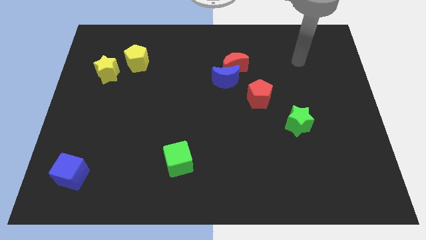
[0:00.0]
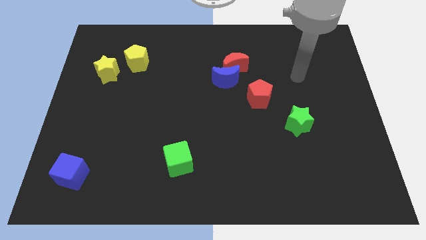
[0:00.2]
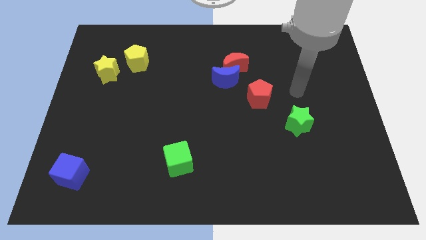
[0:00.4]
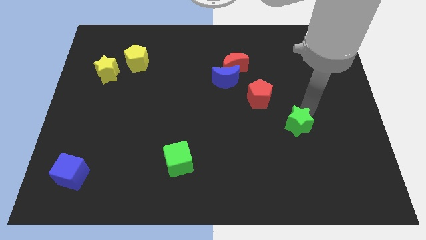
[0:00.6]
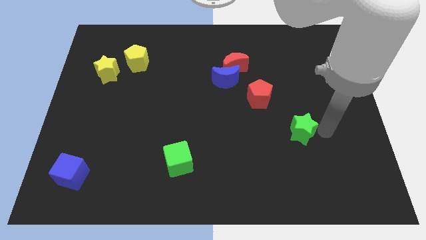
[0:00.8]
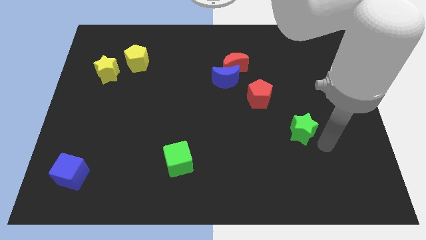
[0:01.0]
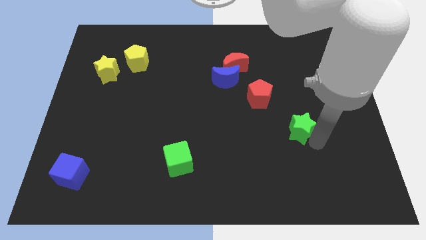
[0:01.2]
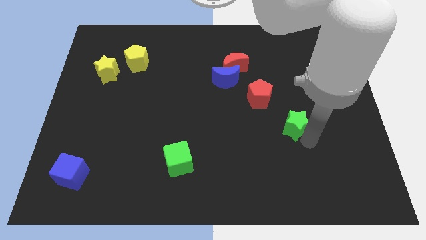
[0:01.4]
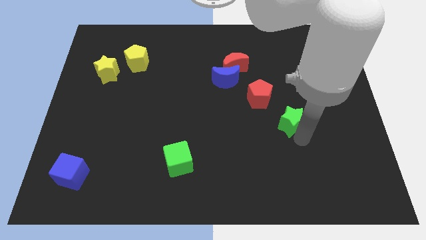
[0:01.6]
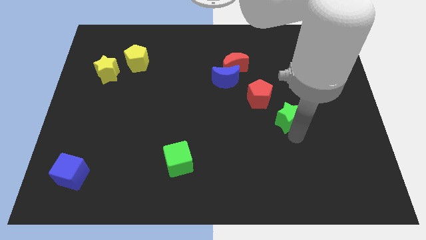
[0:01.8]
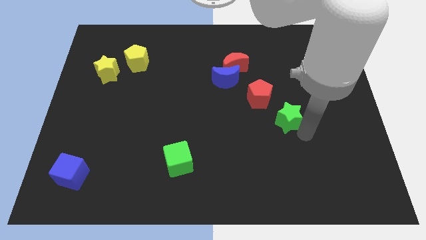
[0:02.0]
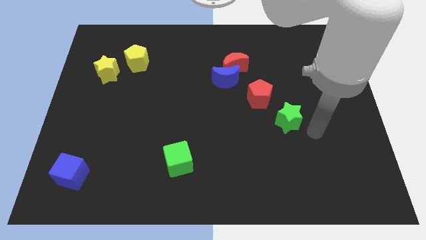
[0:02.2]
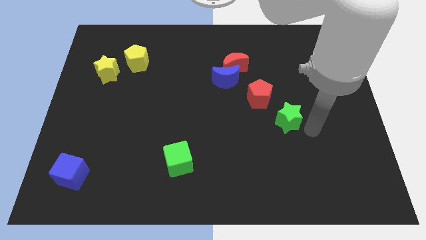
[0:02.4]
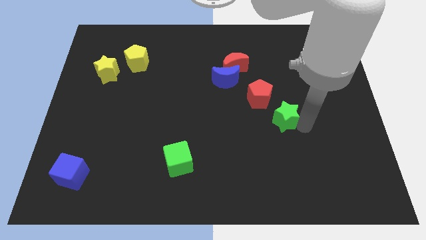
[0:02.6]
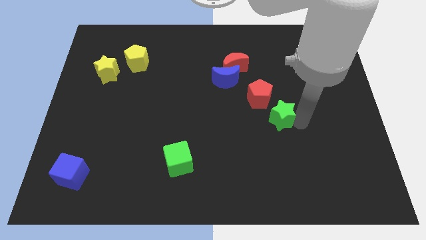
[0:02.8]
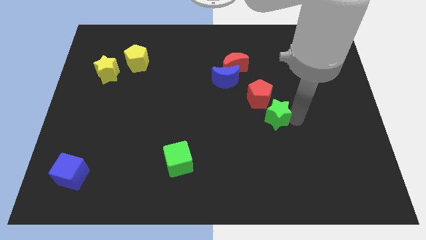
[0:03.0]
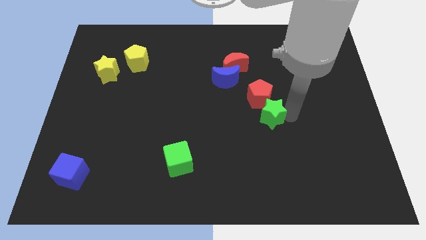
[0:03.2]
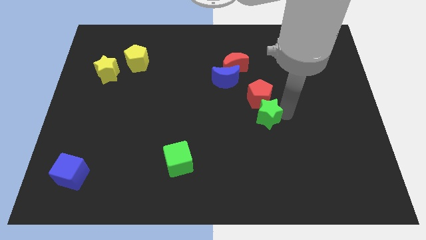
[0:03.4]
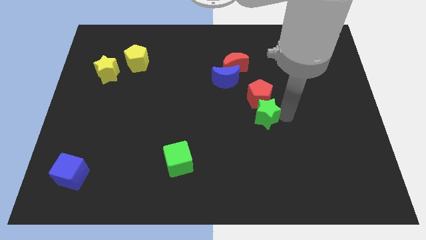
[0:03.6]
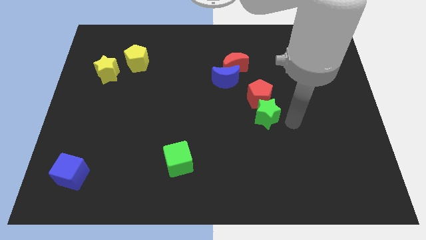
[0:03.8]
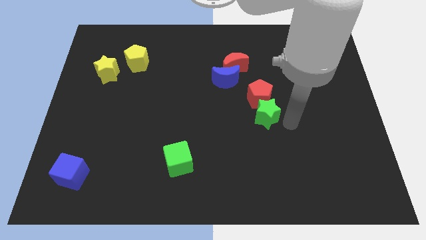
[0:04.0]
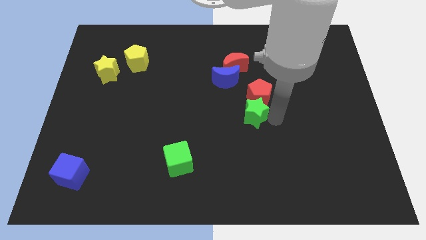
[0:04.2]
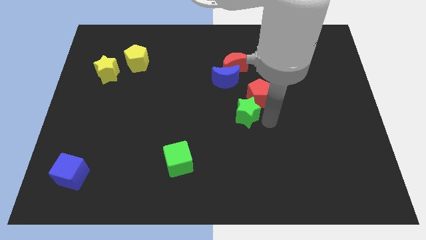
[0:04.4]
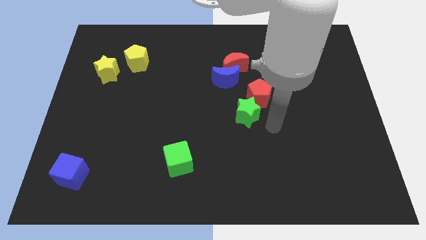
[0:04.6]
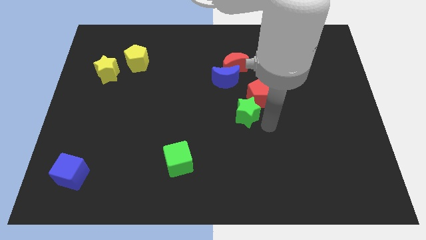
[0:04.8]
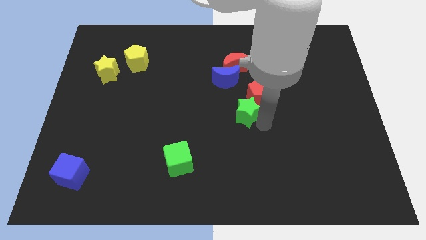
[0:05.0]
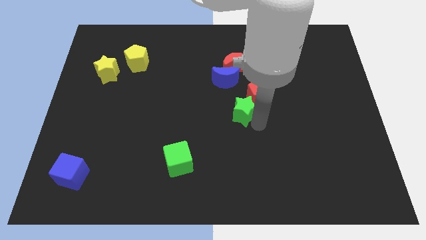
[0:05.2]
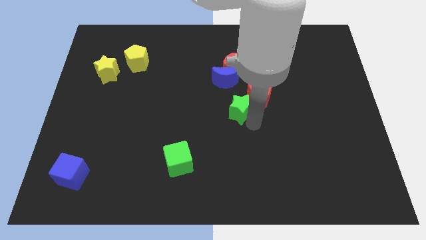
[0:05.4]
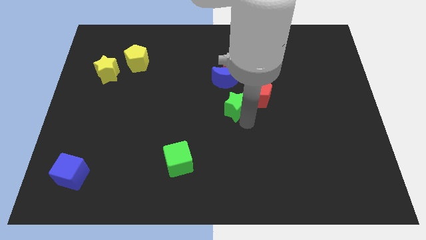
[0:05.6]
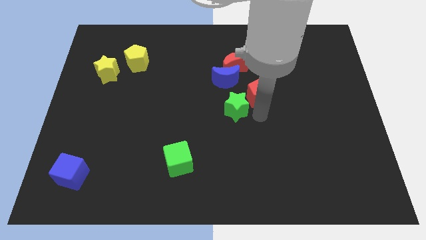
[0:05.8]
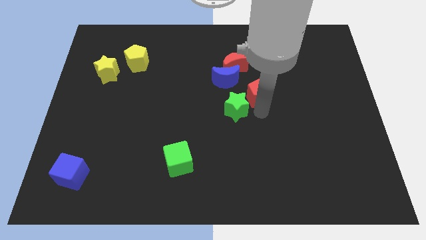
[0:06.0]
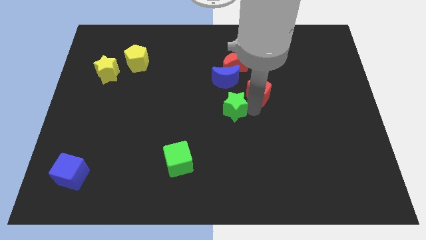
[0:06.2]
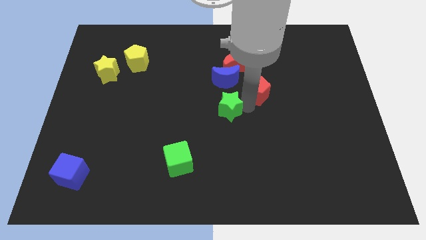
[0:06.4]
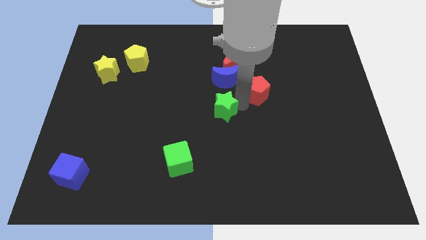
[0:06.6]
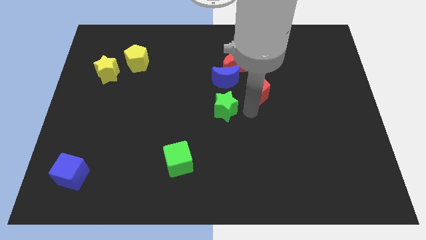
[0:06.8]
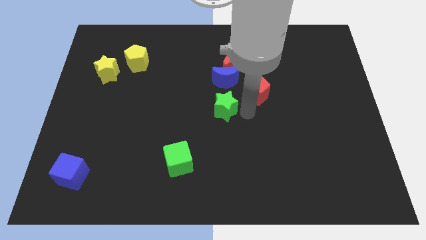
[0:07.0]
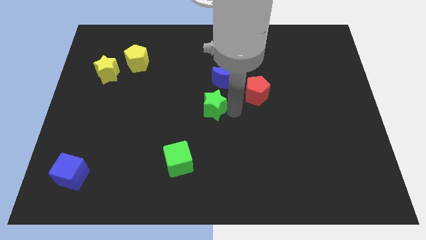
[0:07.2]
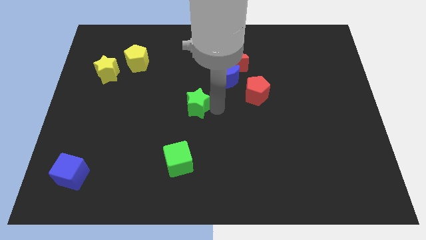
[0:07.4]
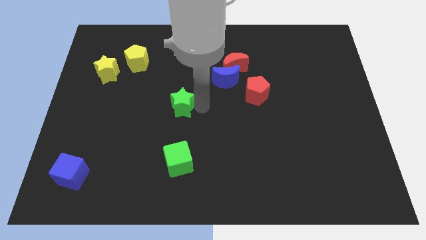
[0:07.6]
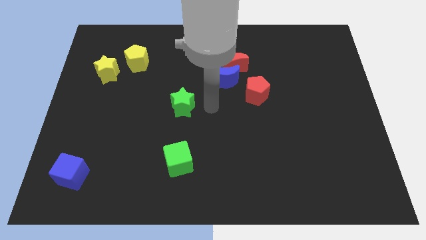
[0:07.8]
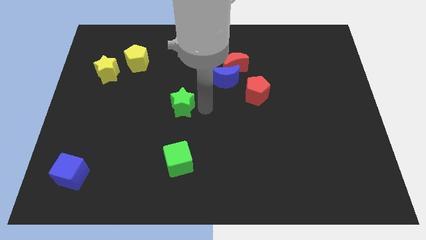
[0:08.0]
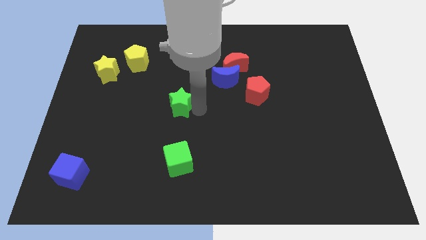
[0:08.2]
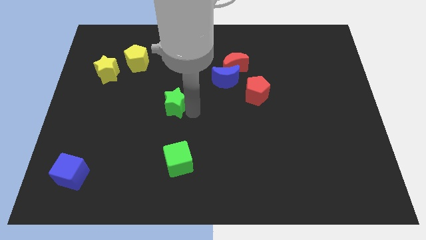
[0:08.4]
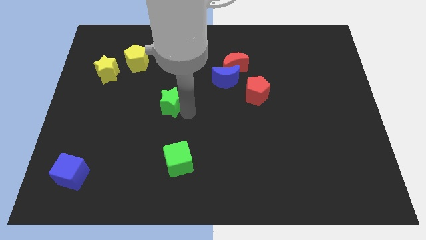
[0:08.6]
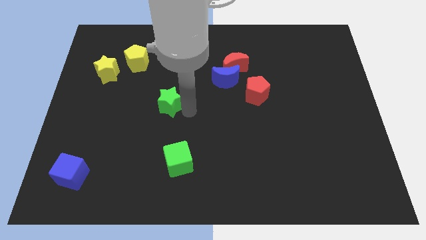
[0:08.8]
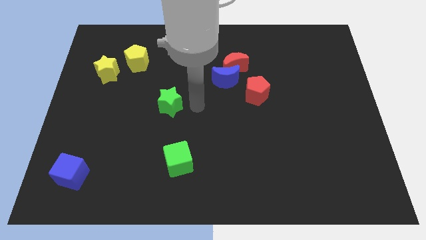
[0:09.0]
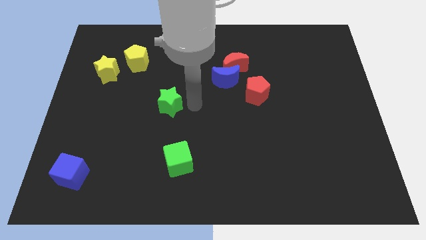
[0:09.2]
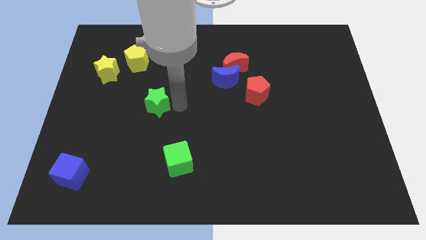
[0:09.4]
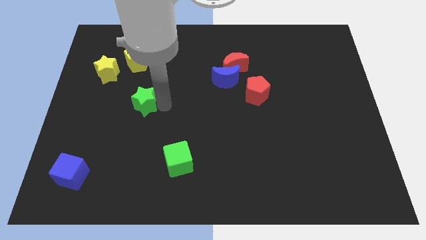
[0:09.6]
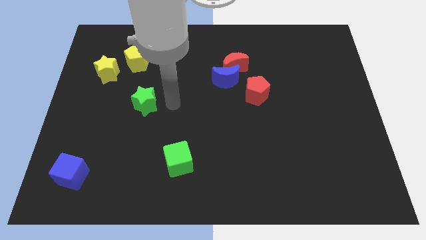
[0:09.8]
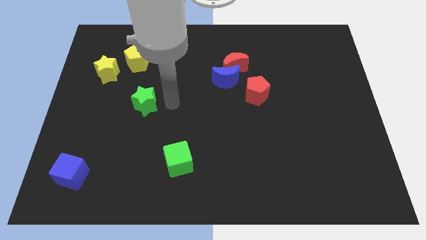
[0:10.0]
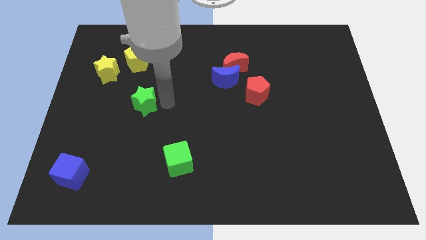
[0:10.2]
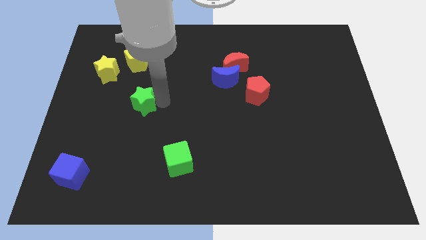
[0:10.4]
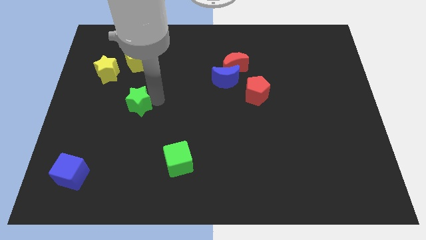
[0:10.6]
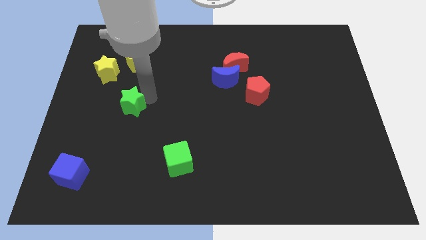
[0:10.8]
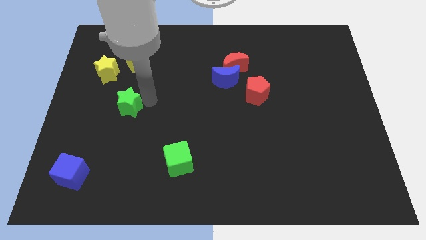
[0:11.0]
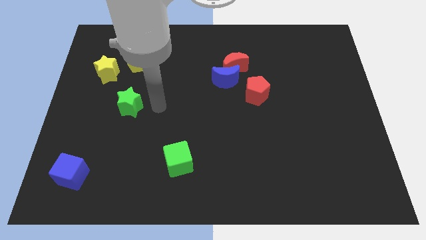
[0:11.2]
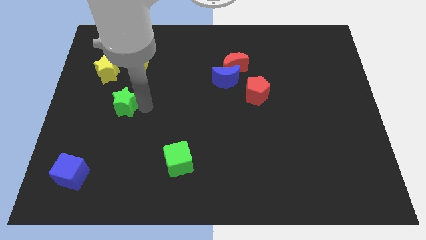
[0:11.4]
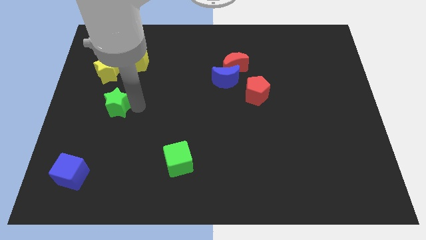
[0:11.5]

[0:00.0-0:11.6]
put the green star to the bottom side of the yellow star
